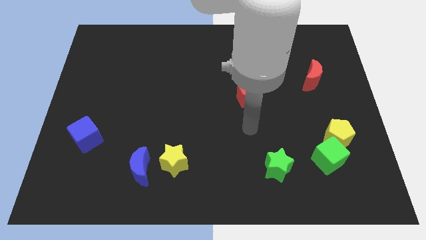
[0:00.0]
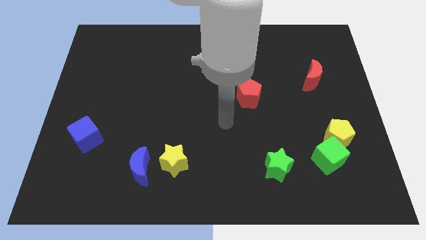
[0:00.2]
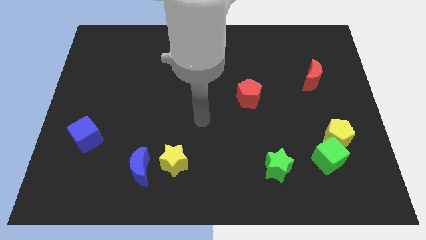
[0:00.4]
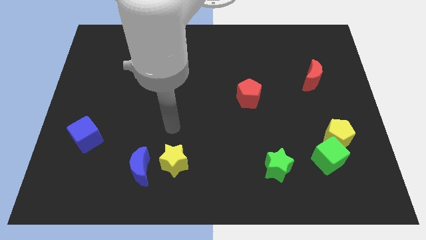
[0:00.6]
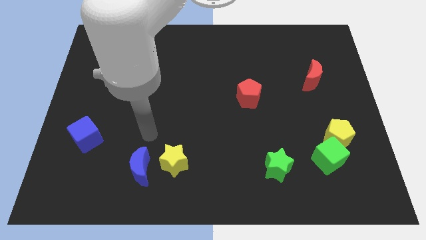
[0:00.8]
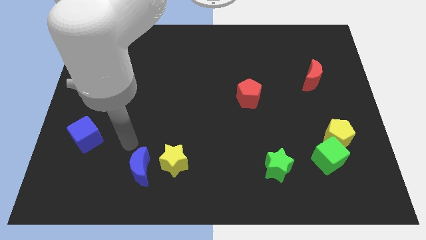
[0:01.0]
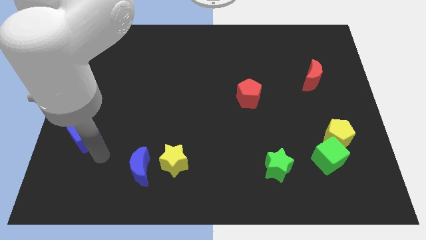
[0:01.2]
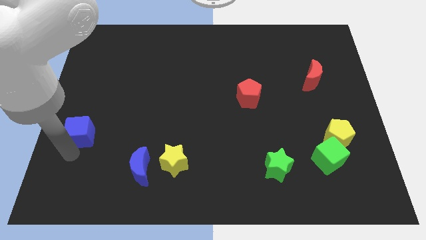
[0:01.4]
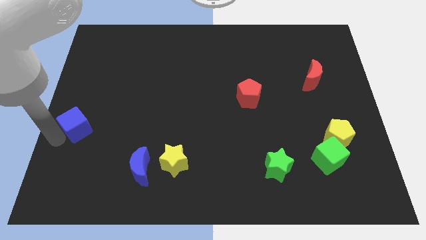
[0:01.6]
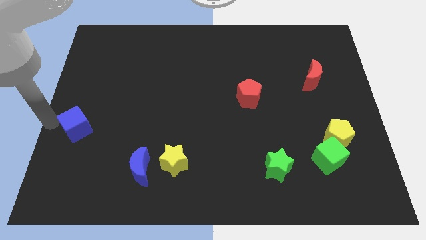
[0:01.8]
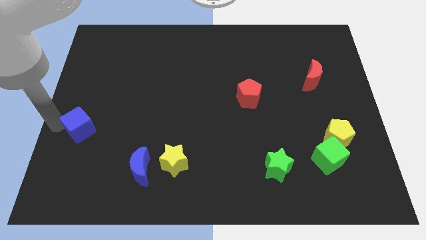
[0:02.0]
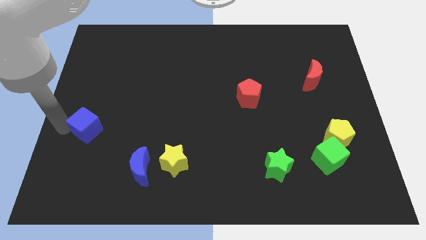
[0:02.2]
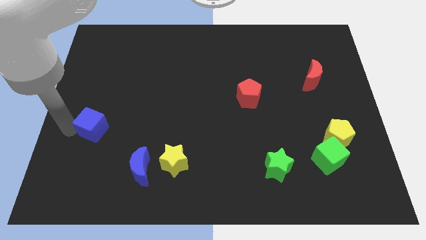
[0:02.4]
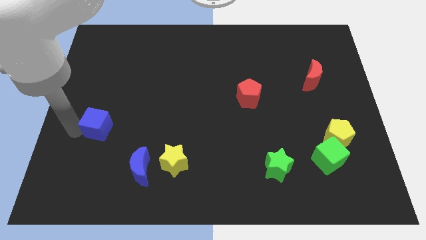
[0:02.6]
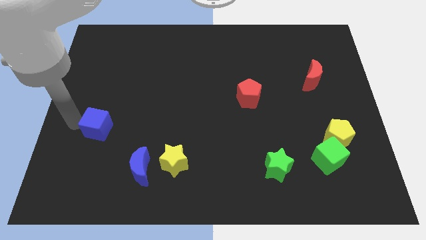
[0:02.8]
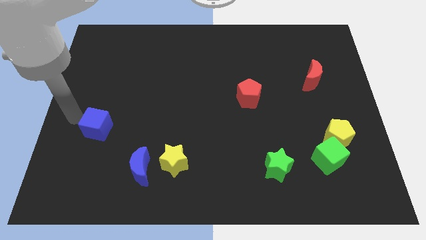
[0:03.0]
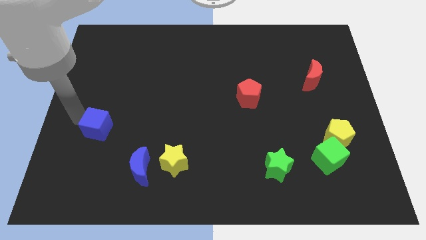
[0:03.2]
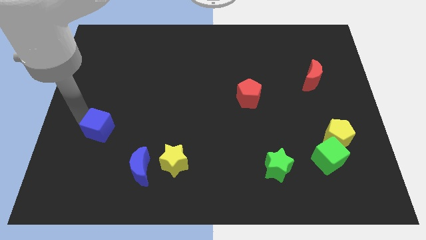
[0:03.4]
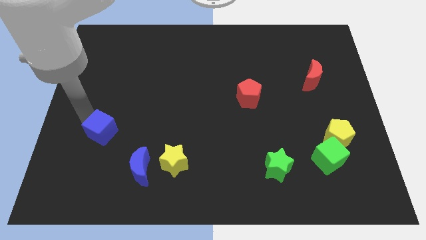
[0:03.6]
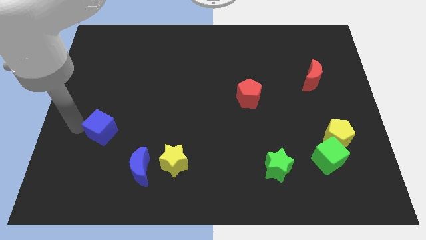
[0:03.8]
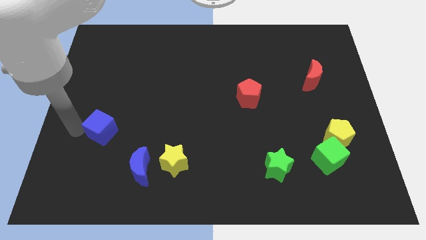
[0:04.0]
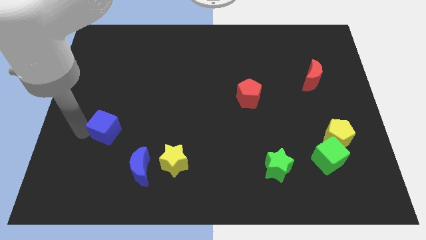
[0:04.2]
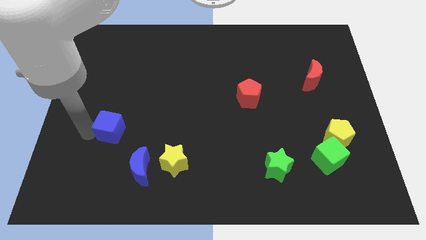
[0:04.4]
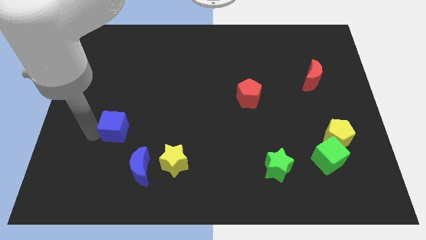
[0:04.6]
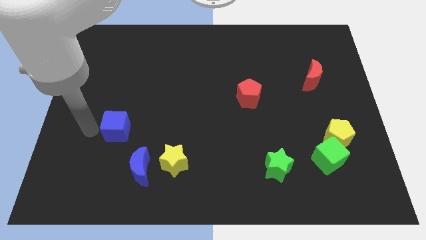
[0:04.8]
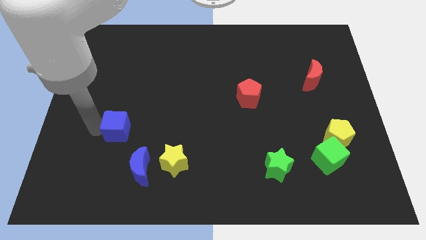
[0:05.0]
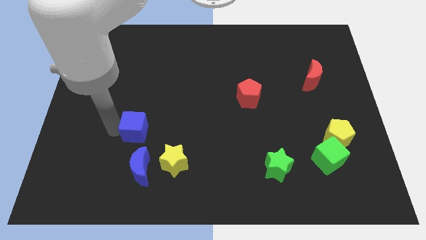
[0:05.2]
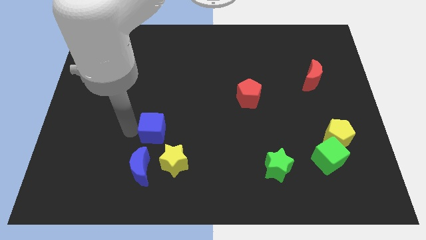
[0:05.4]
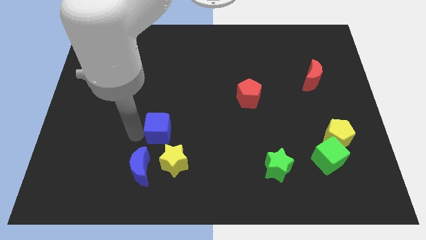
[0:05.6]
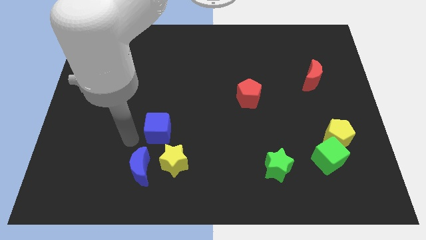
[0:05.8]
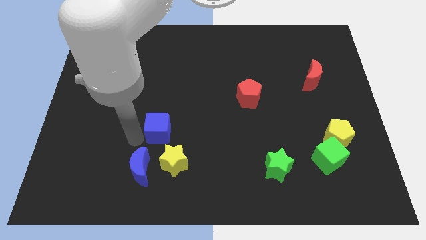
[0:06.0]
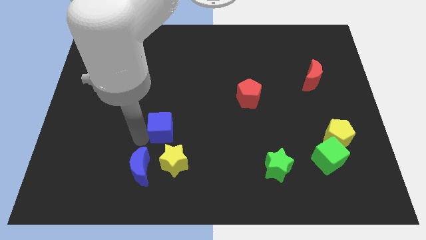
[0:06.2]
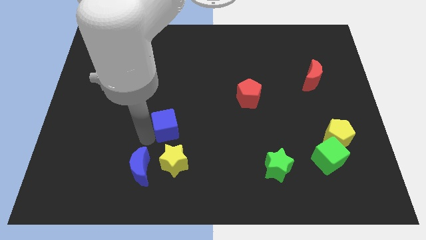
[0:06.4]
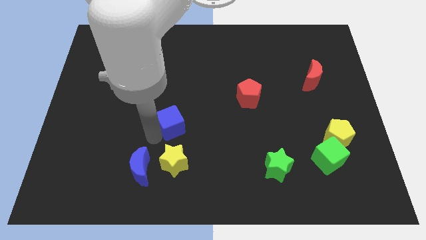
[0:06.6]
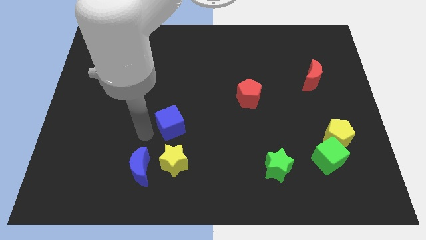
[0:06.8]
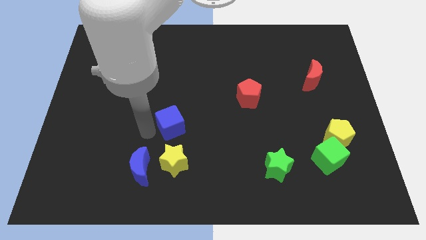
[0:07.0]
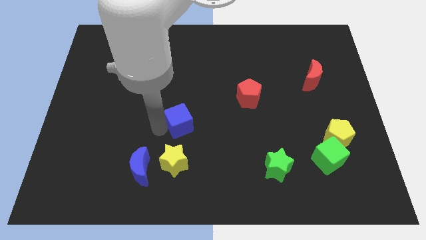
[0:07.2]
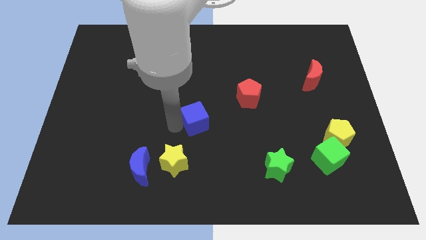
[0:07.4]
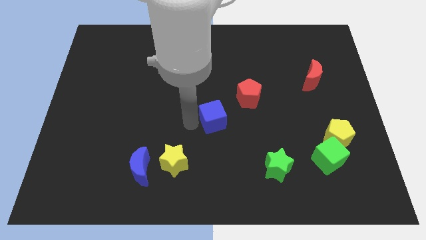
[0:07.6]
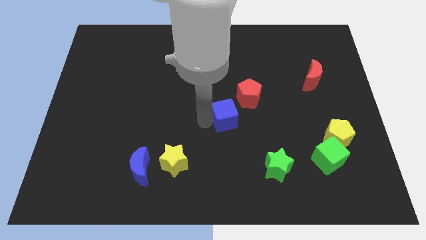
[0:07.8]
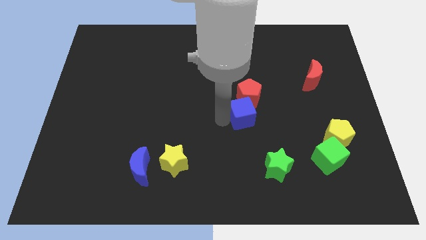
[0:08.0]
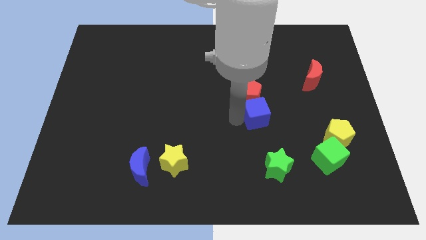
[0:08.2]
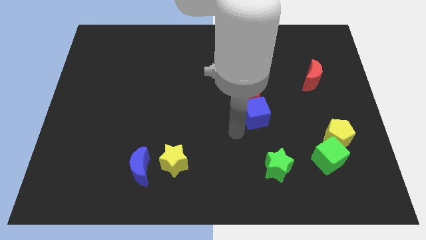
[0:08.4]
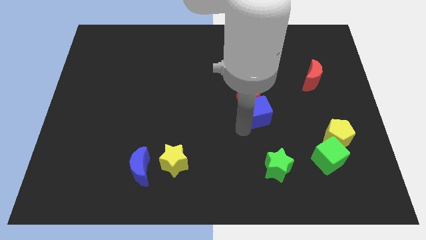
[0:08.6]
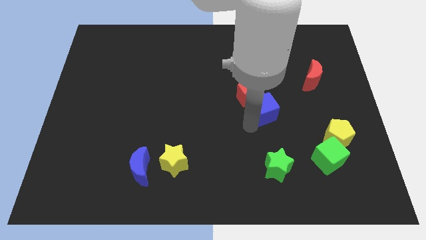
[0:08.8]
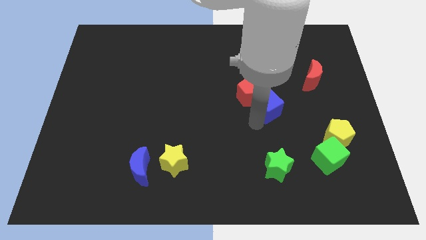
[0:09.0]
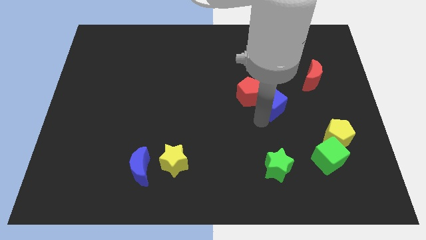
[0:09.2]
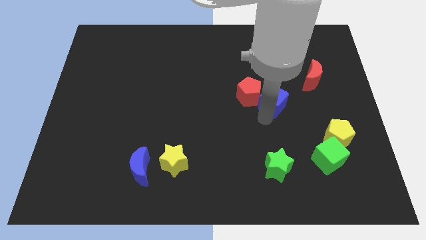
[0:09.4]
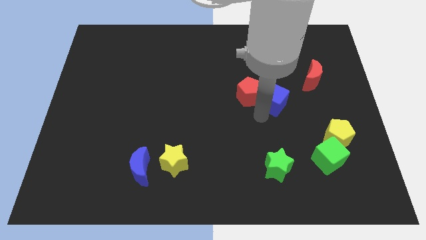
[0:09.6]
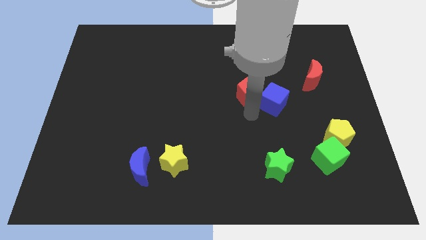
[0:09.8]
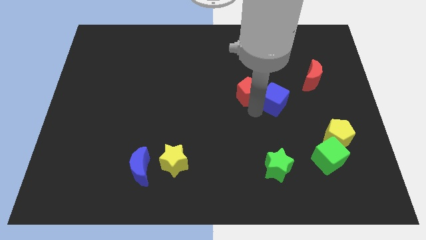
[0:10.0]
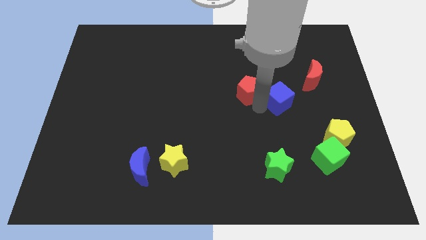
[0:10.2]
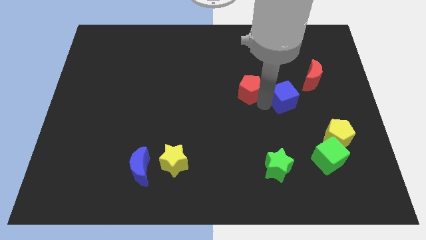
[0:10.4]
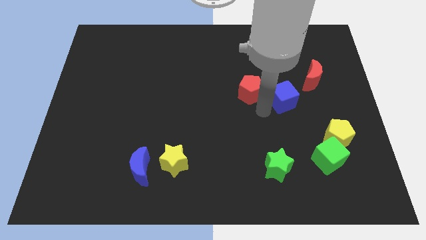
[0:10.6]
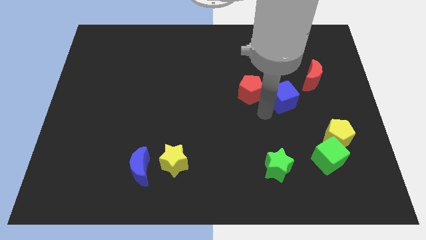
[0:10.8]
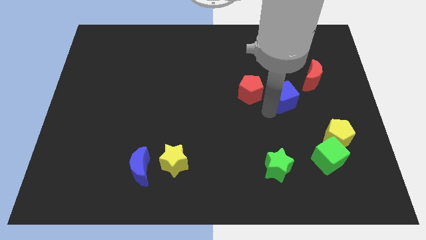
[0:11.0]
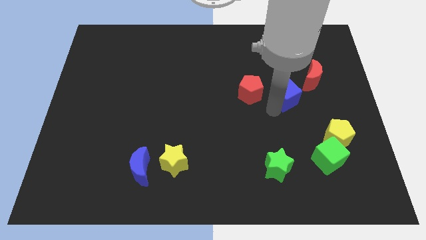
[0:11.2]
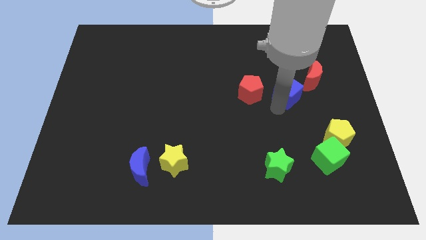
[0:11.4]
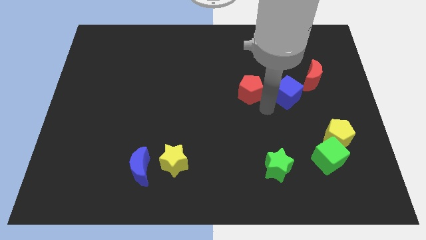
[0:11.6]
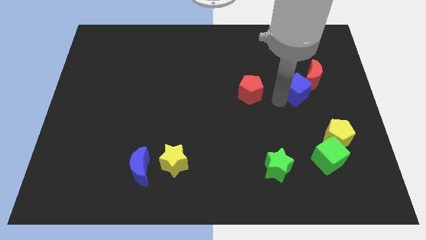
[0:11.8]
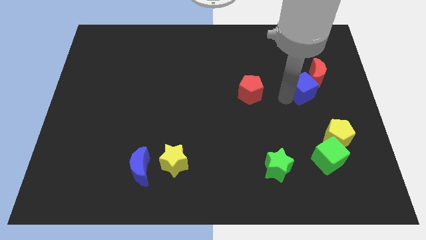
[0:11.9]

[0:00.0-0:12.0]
put the blue cube to the red moon

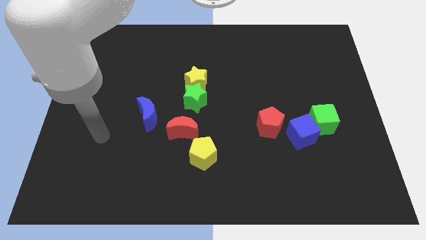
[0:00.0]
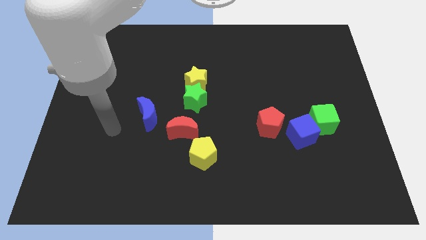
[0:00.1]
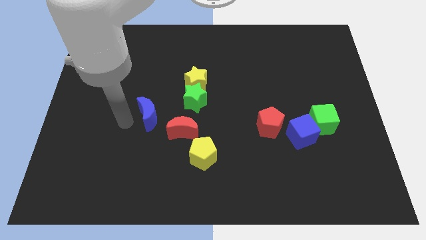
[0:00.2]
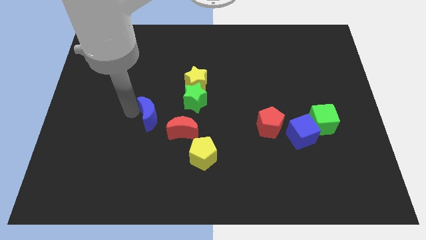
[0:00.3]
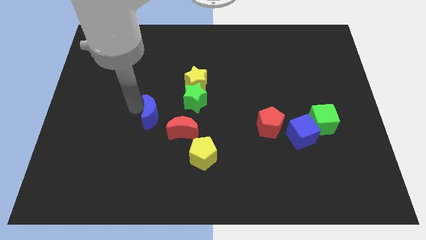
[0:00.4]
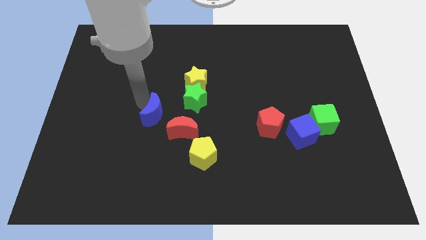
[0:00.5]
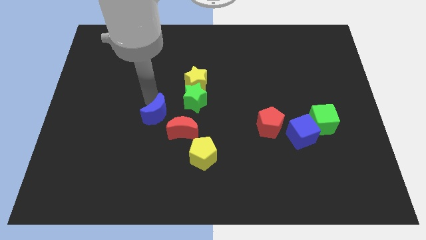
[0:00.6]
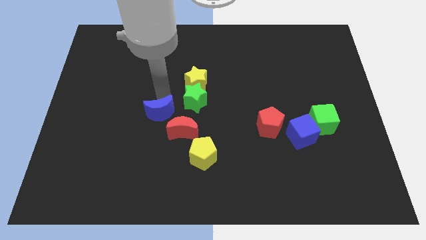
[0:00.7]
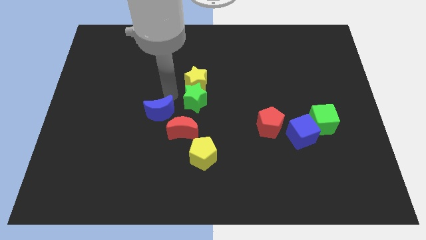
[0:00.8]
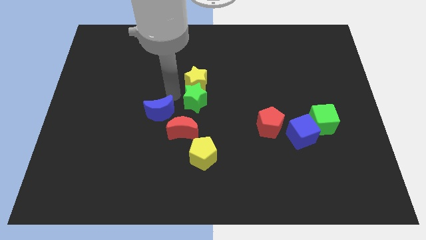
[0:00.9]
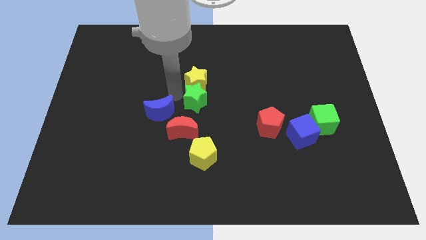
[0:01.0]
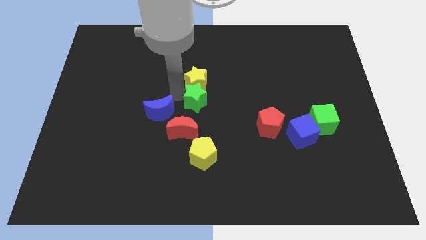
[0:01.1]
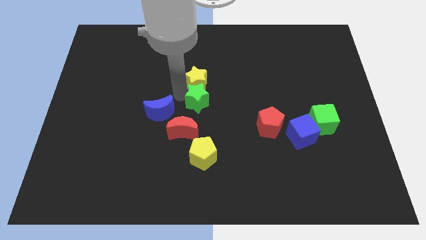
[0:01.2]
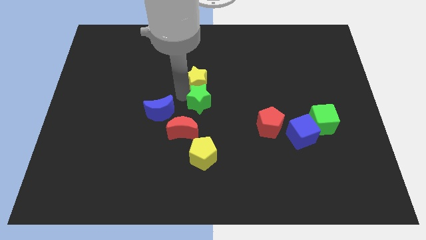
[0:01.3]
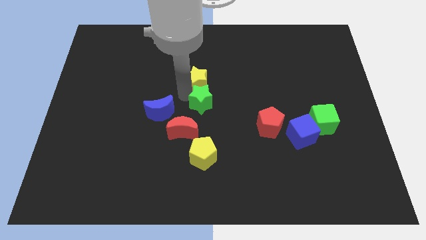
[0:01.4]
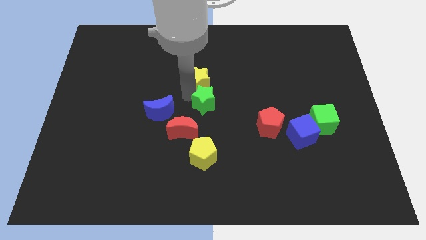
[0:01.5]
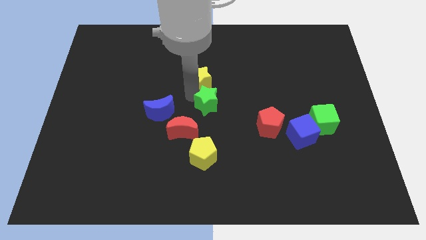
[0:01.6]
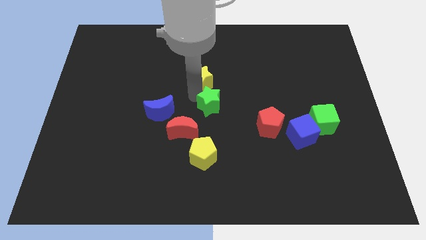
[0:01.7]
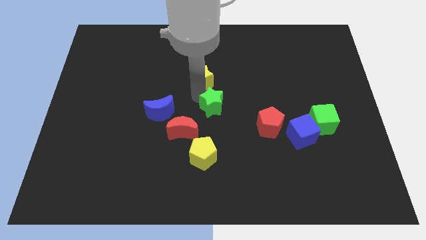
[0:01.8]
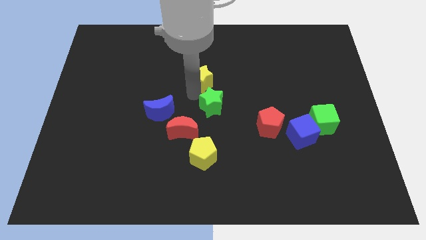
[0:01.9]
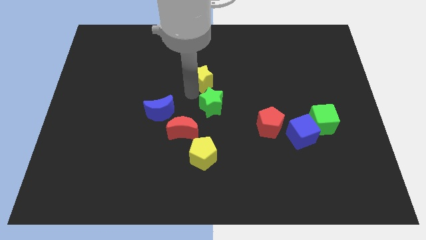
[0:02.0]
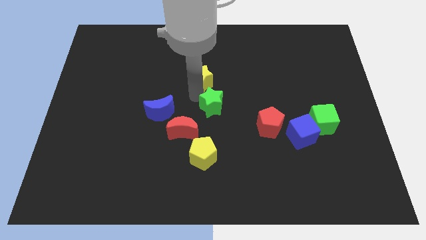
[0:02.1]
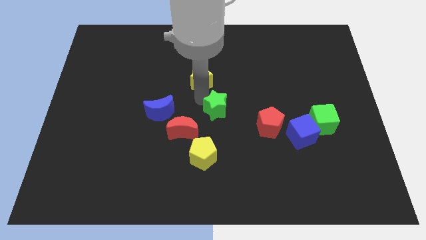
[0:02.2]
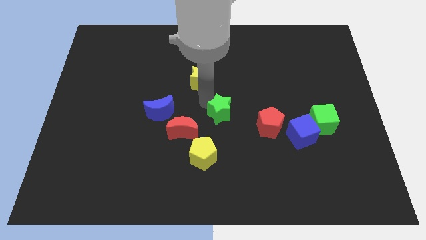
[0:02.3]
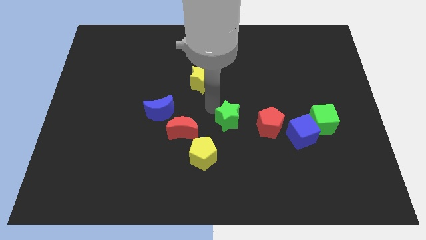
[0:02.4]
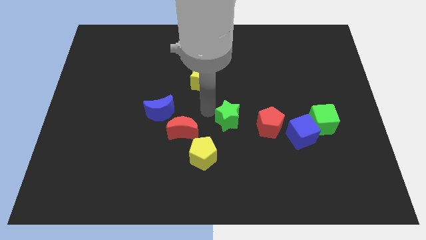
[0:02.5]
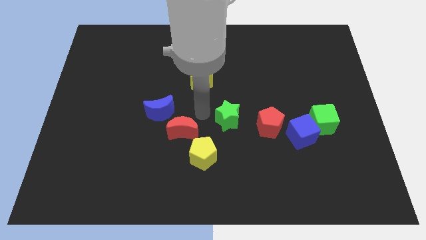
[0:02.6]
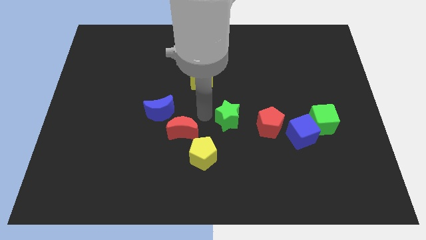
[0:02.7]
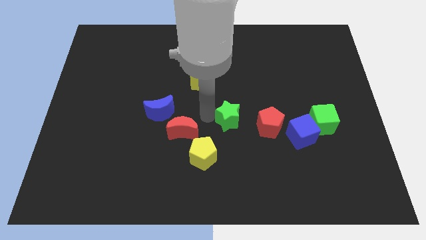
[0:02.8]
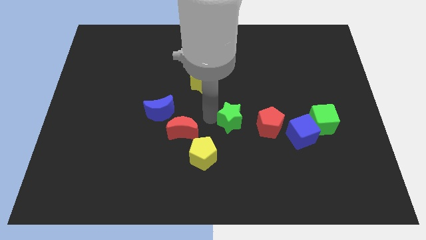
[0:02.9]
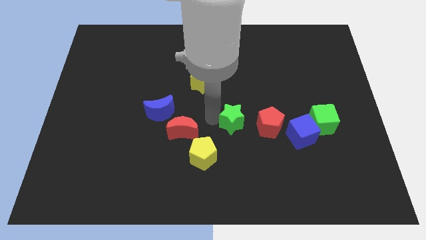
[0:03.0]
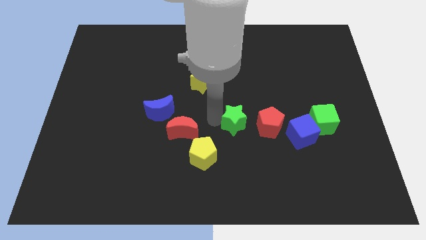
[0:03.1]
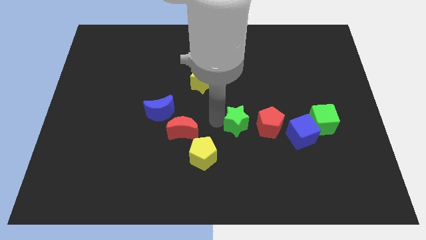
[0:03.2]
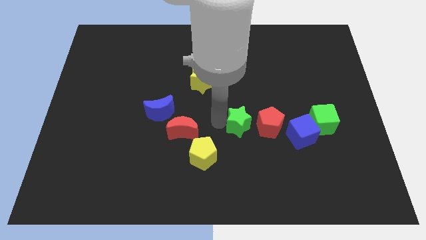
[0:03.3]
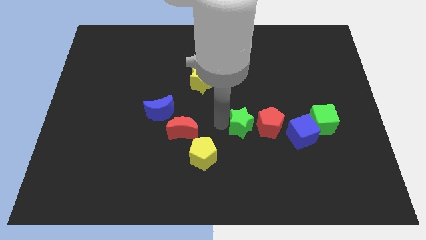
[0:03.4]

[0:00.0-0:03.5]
slide the green star next to the red pentagon
